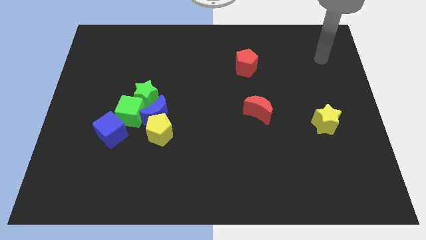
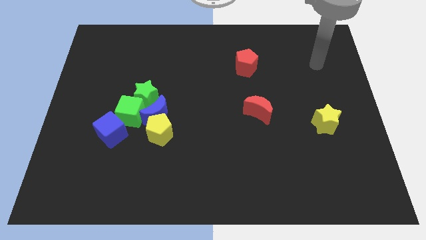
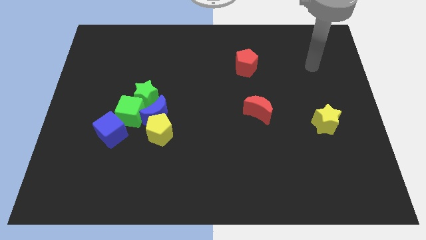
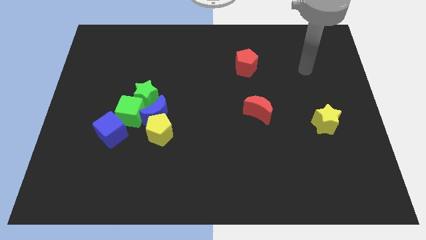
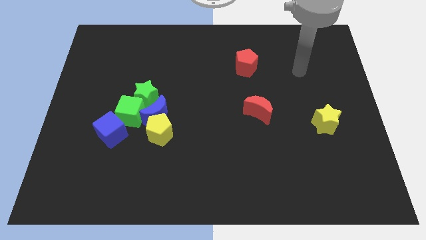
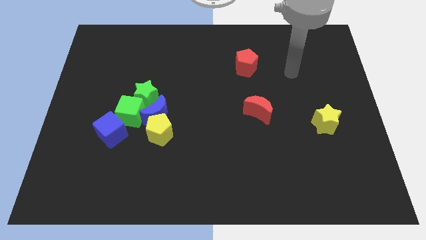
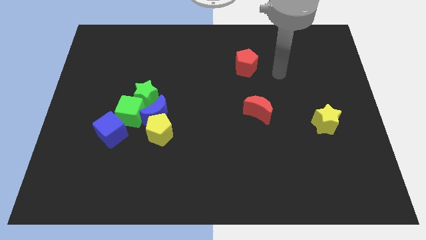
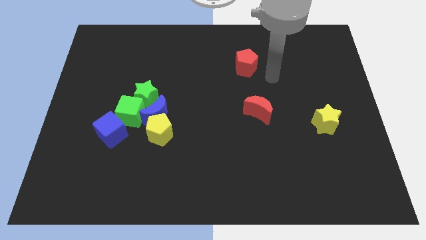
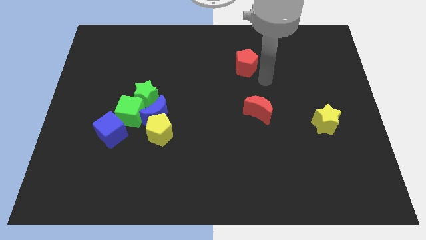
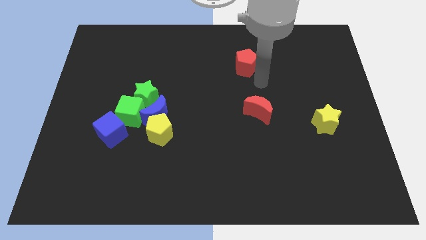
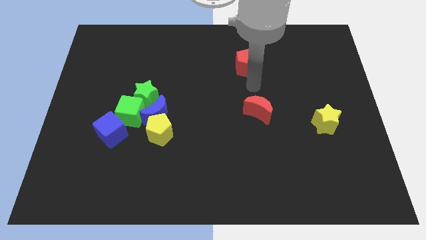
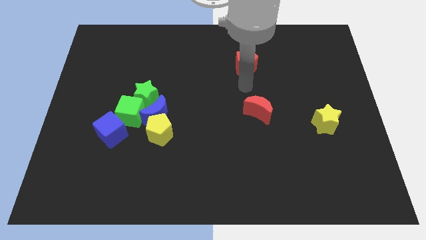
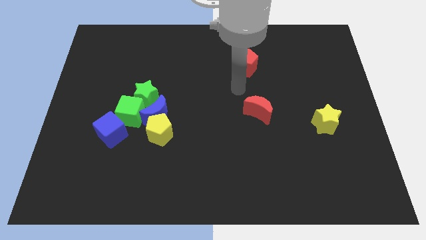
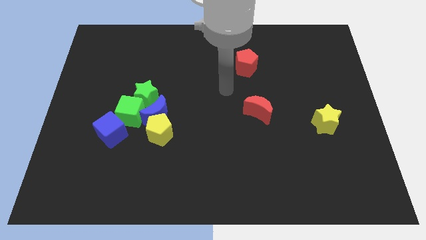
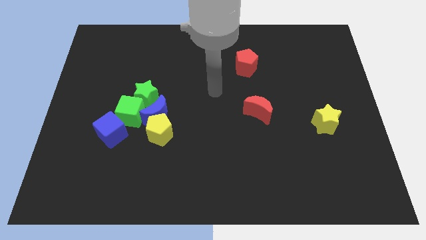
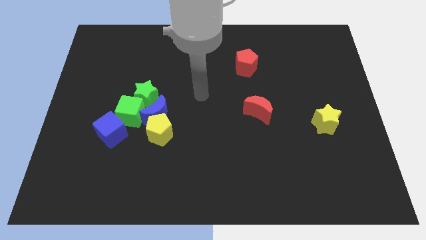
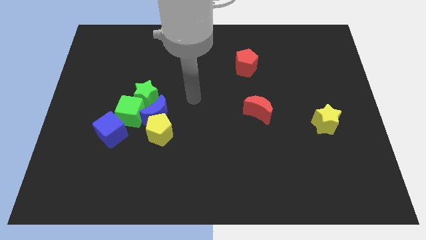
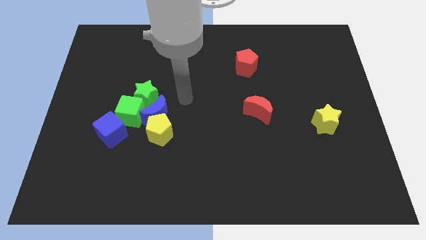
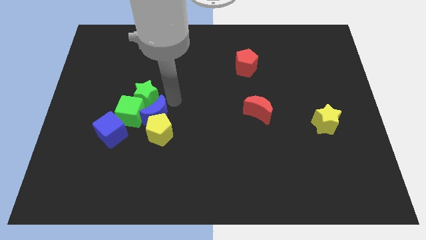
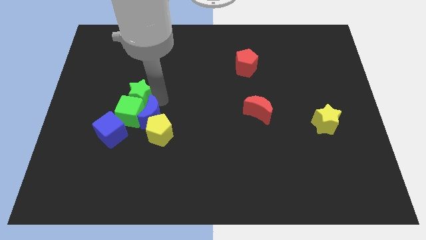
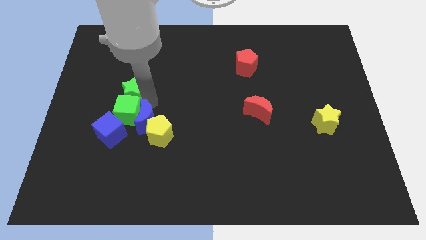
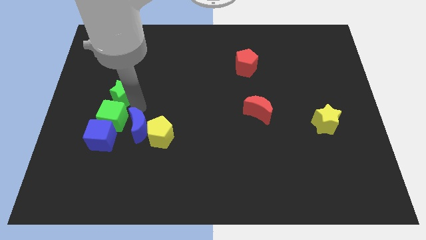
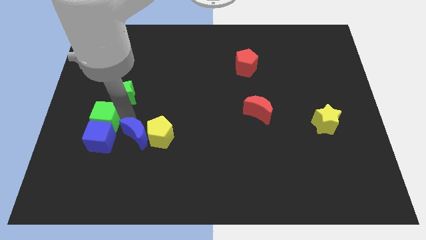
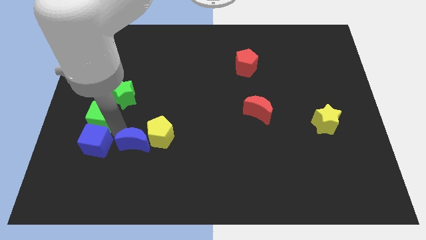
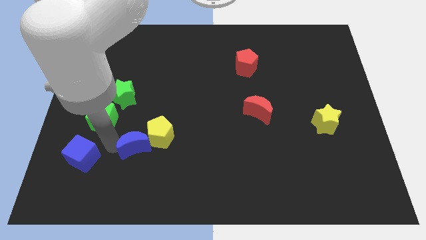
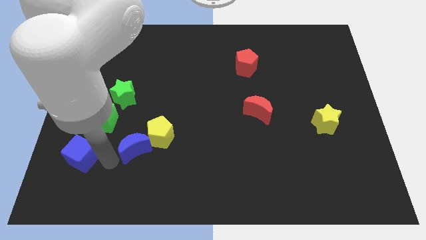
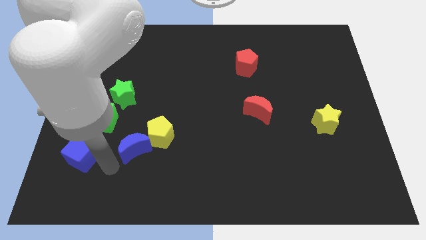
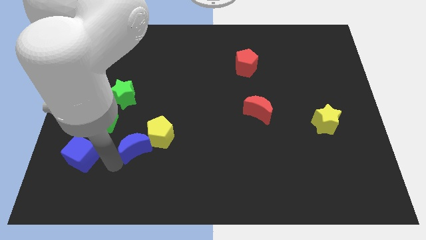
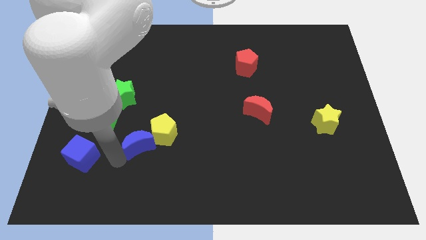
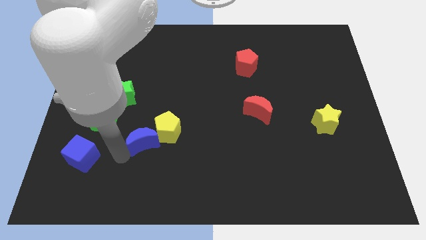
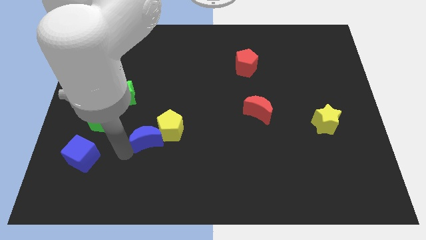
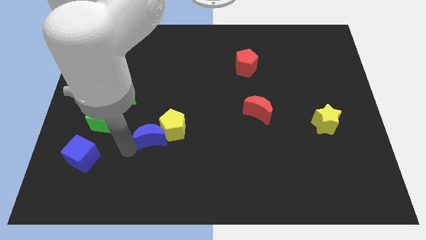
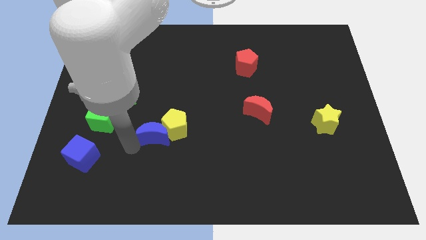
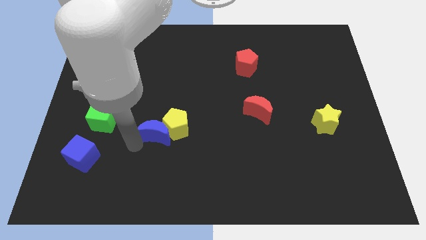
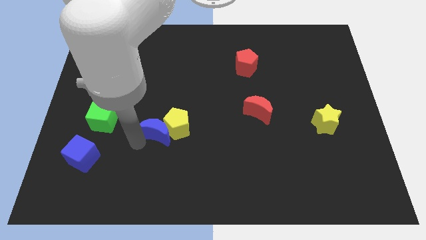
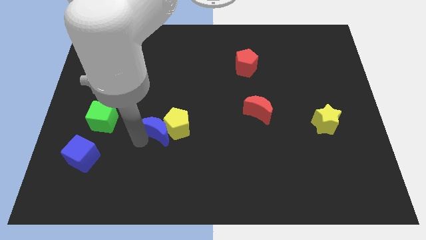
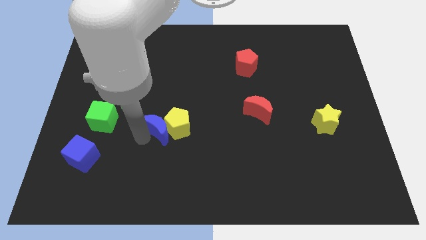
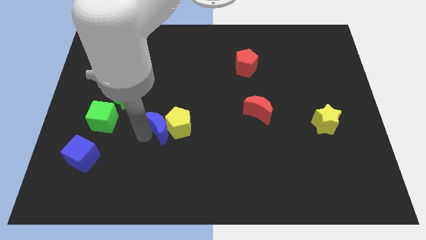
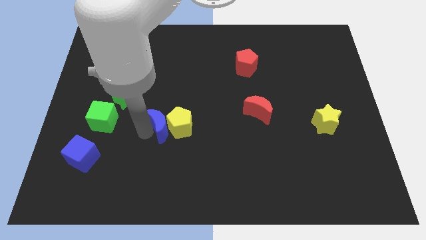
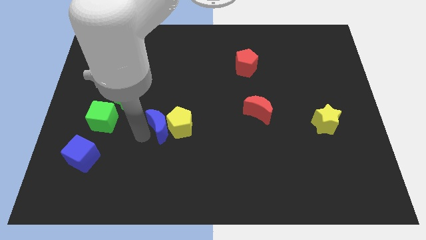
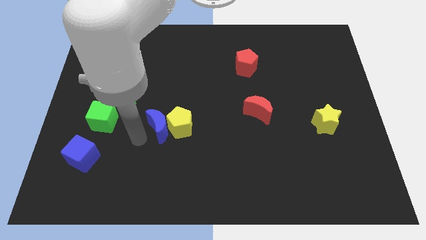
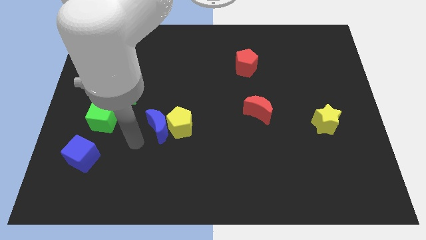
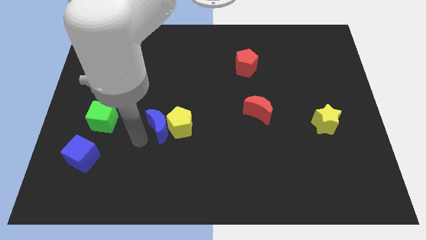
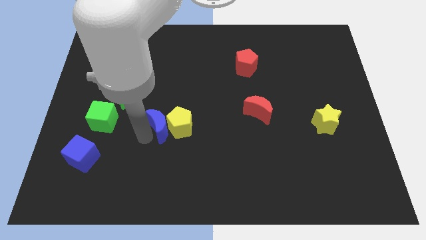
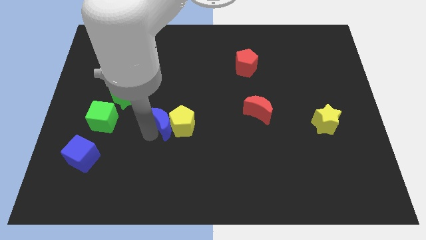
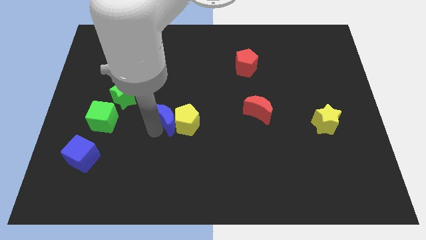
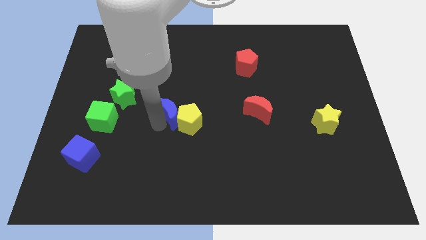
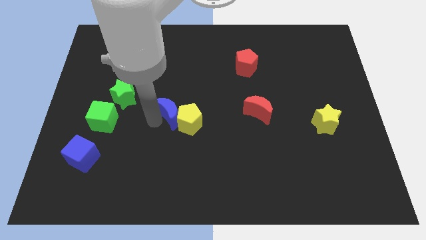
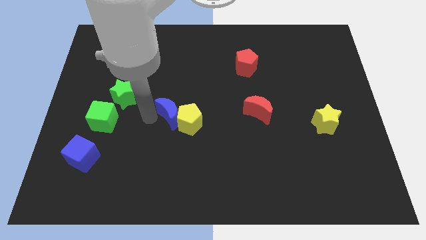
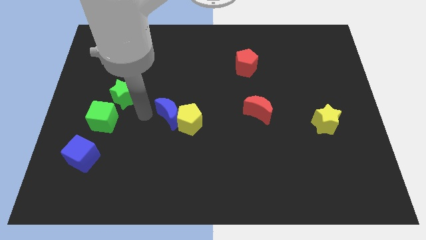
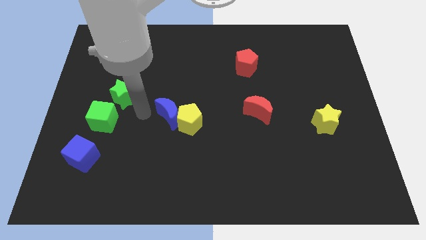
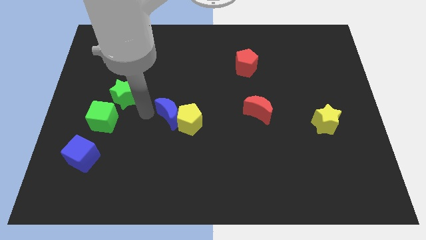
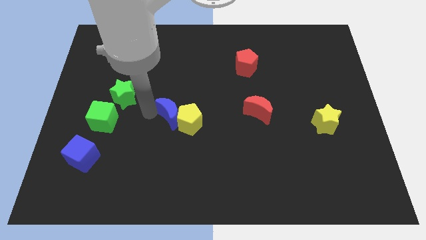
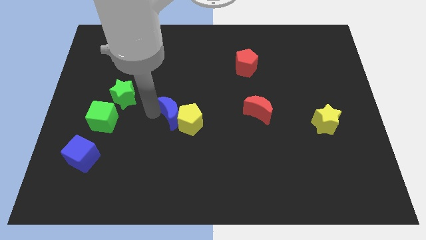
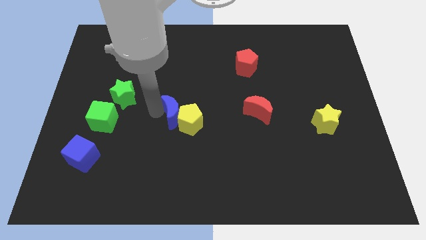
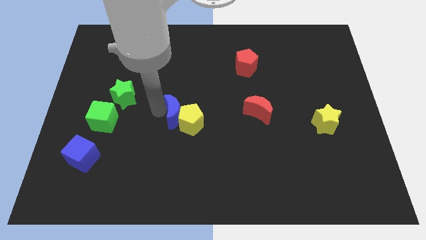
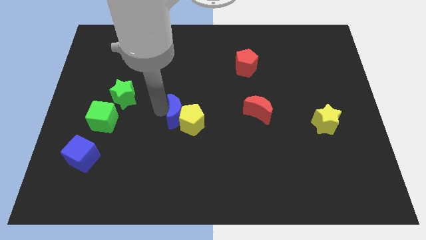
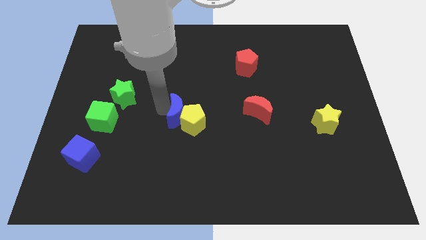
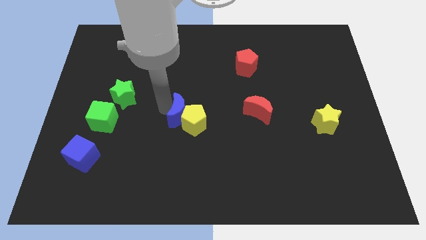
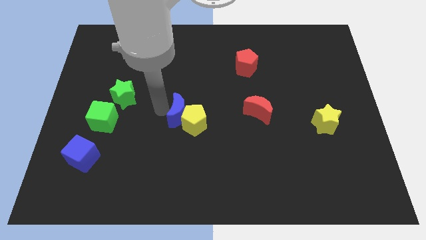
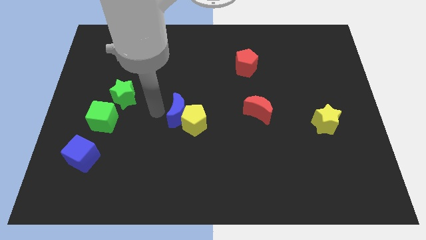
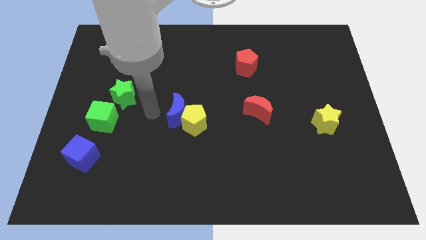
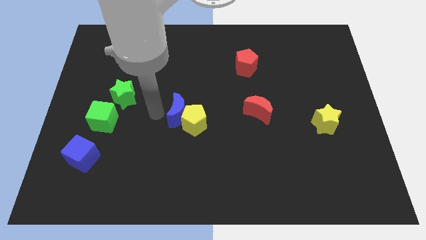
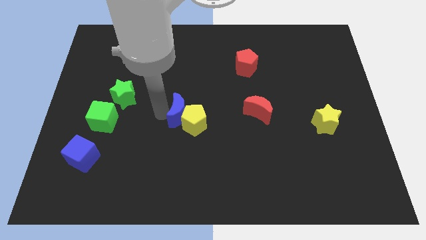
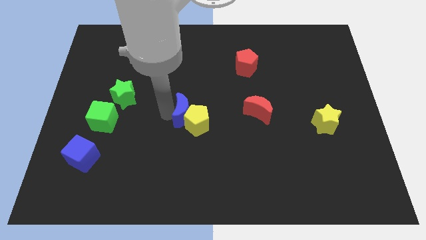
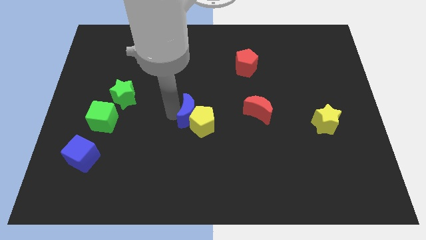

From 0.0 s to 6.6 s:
move the blue moon away from the group of blocks

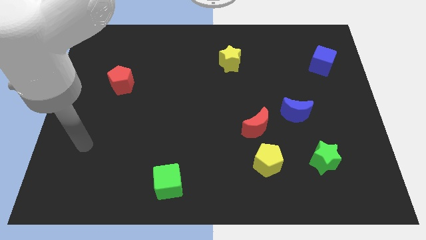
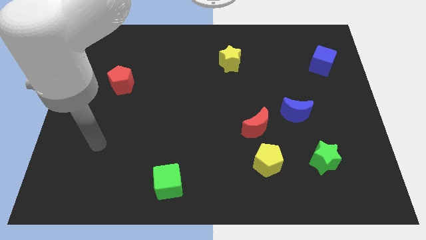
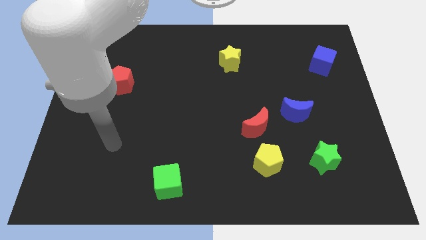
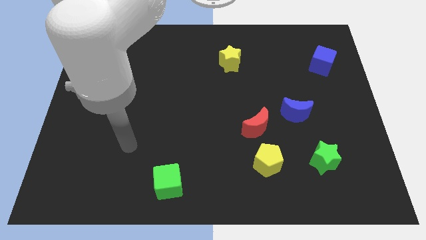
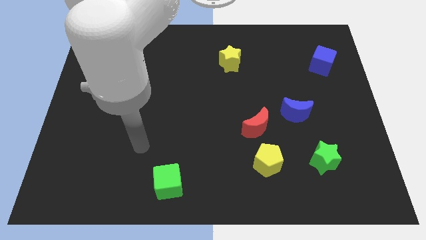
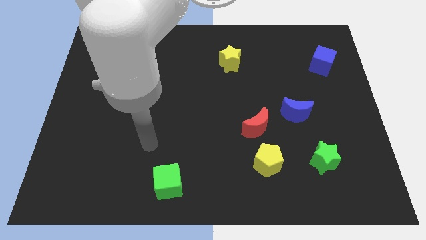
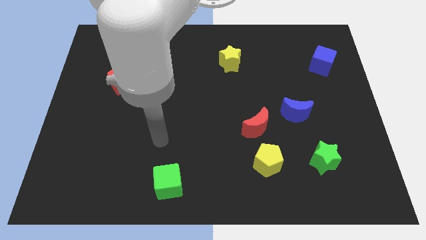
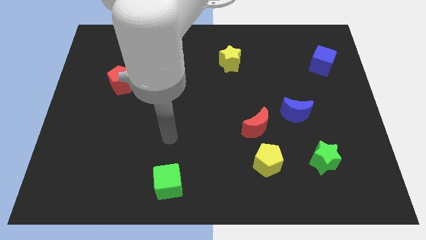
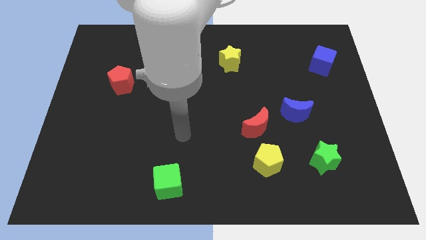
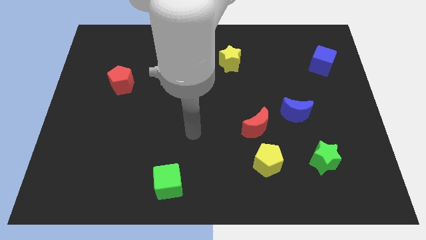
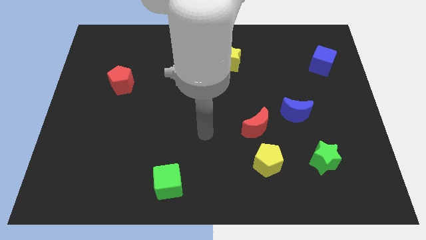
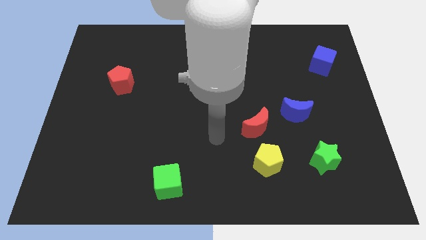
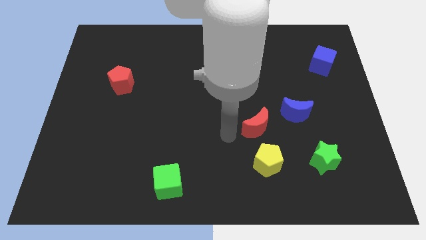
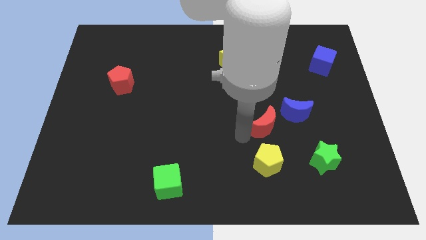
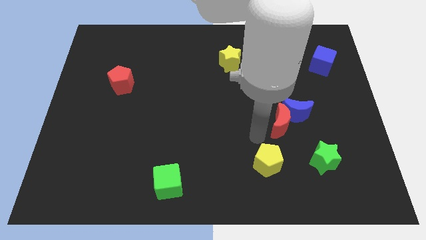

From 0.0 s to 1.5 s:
move the yellow pentagon away from the red moon

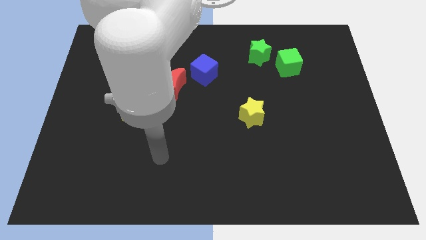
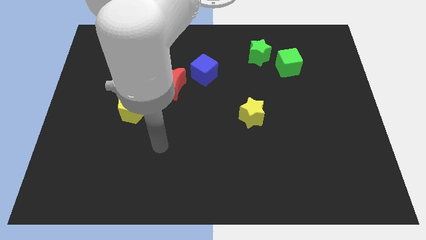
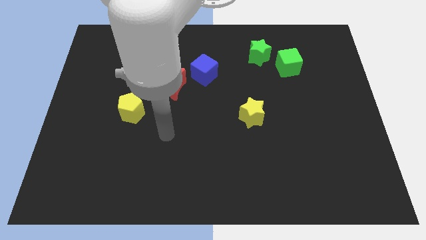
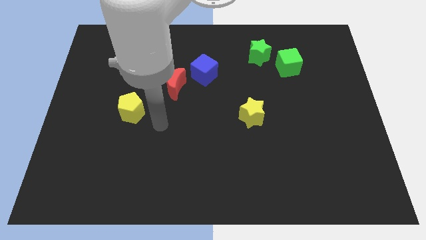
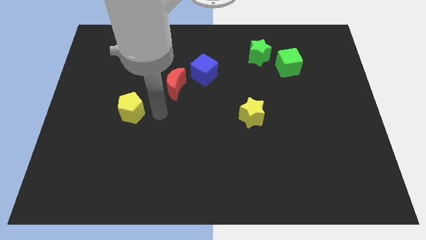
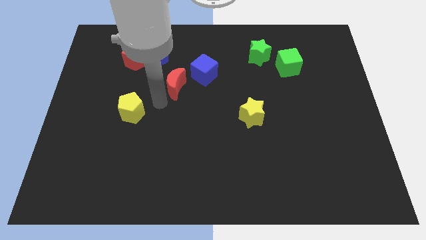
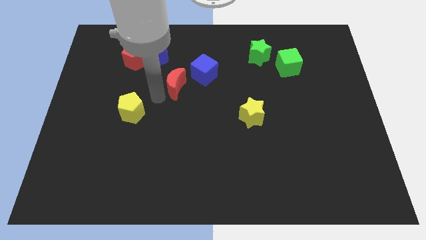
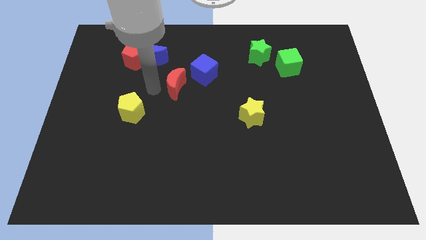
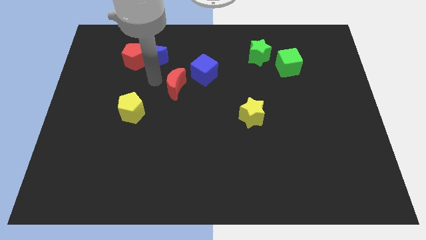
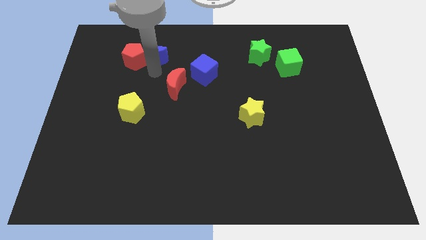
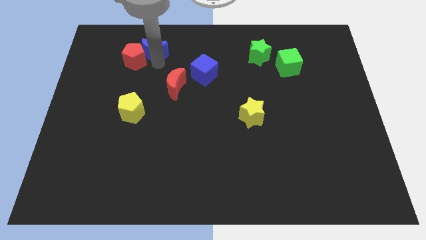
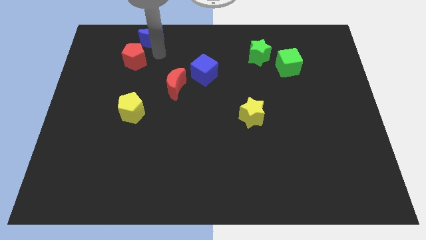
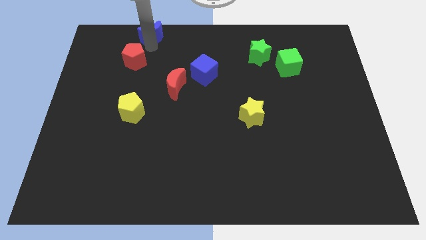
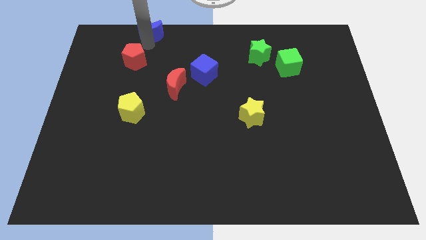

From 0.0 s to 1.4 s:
move the red pentagon away from the blue moon
